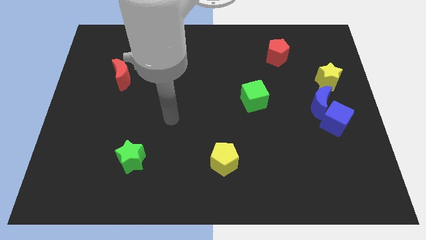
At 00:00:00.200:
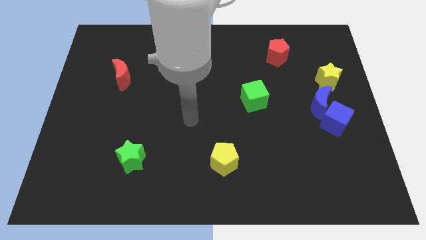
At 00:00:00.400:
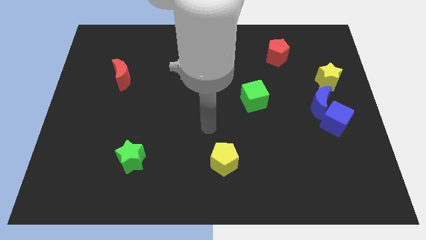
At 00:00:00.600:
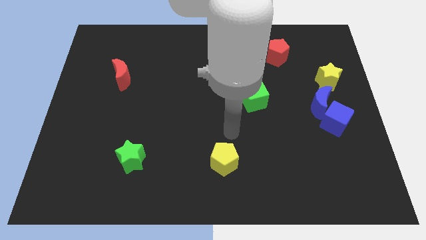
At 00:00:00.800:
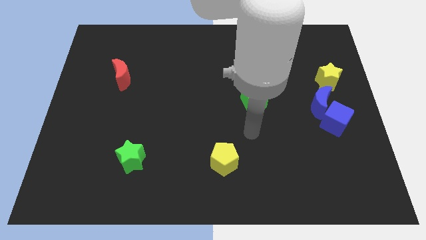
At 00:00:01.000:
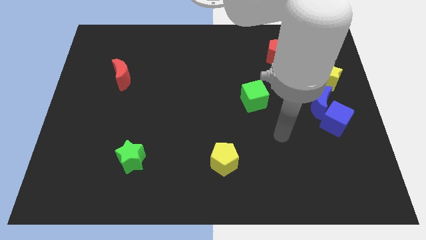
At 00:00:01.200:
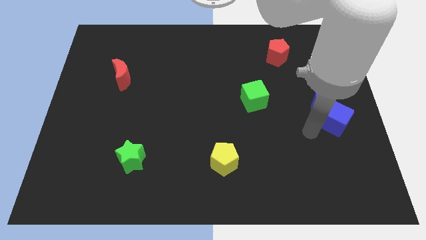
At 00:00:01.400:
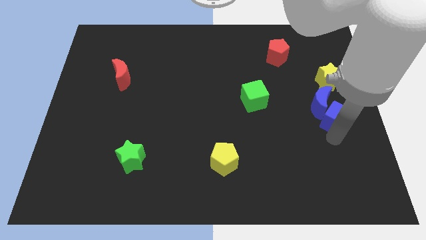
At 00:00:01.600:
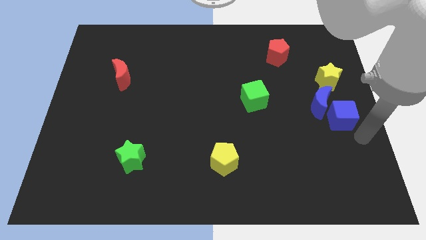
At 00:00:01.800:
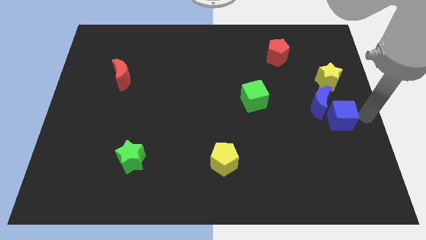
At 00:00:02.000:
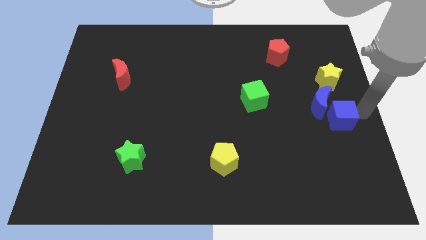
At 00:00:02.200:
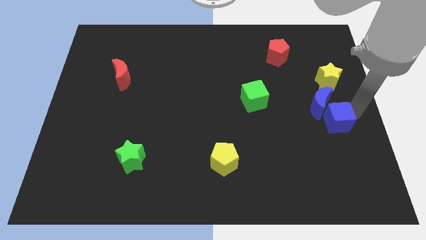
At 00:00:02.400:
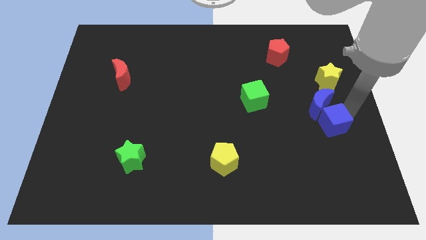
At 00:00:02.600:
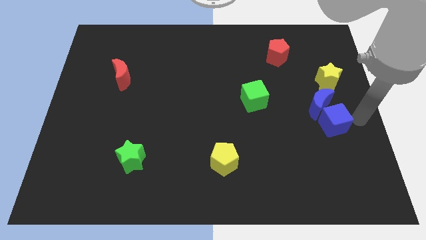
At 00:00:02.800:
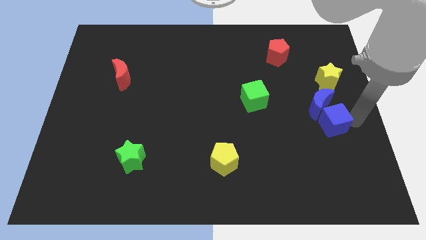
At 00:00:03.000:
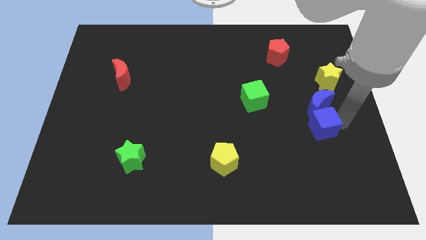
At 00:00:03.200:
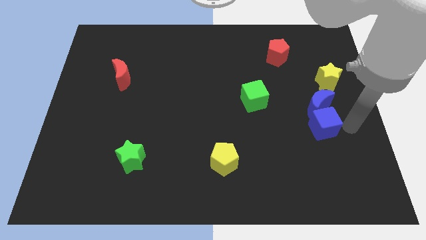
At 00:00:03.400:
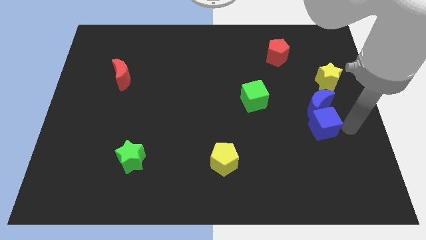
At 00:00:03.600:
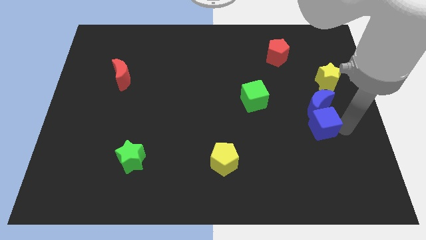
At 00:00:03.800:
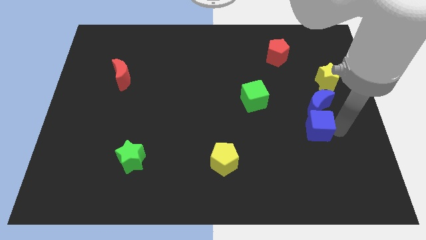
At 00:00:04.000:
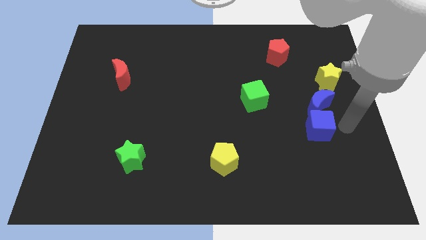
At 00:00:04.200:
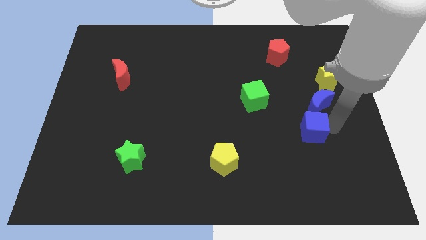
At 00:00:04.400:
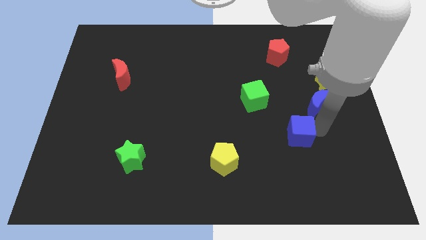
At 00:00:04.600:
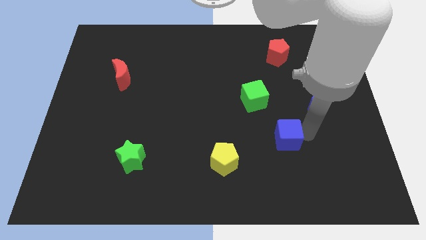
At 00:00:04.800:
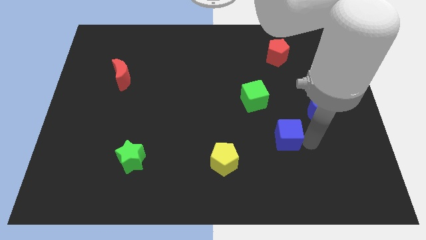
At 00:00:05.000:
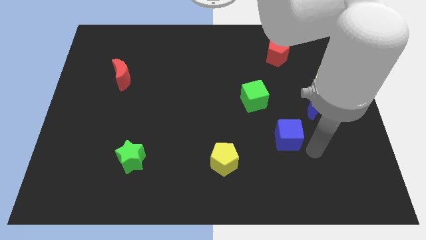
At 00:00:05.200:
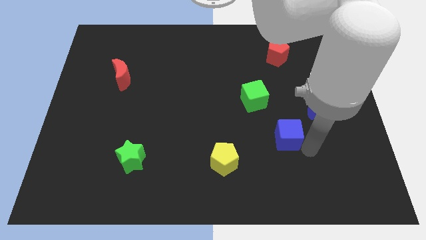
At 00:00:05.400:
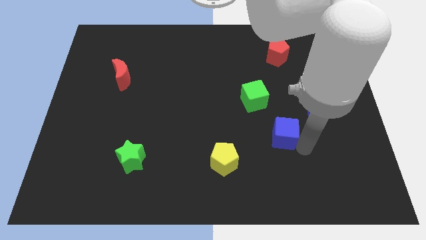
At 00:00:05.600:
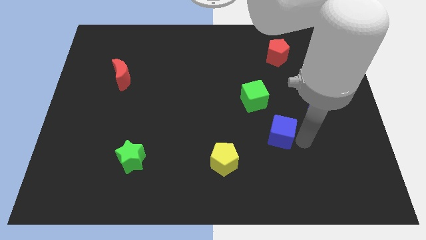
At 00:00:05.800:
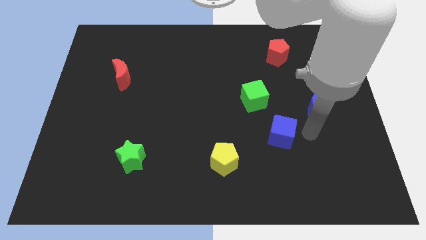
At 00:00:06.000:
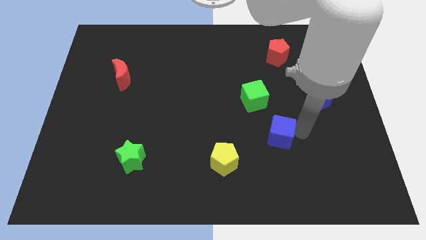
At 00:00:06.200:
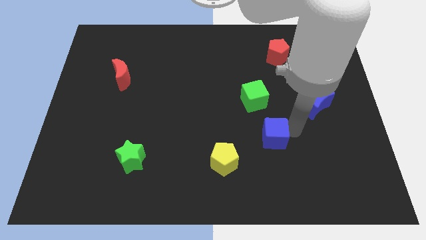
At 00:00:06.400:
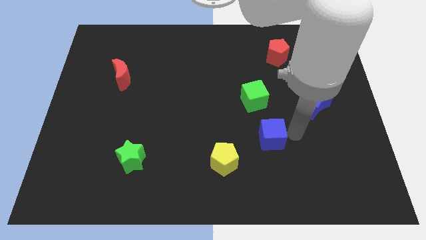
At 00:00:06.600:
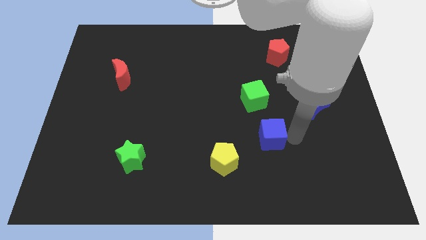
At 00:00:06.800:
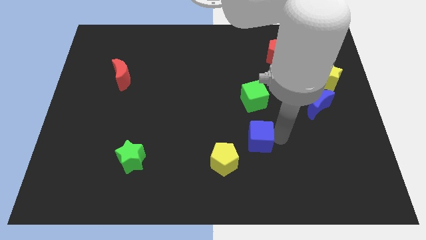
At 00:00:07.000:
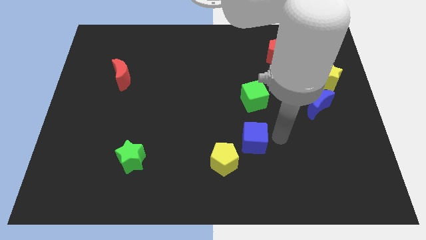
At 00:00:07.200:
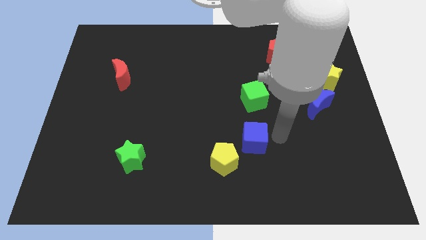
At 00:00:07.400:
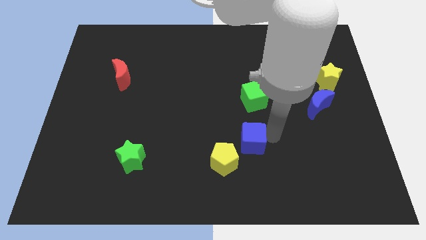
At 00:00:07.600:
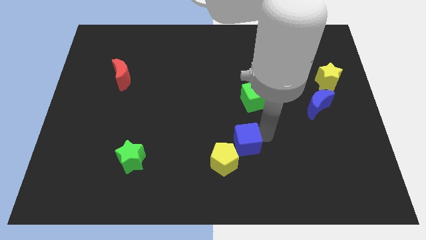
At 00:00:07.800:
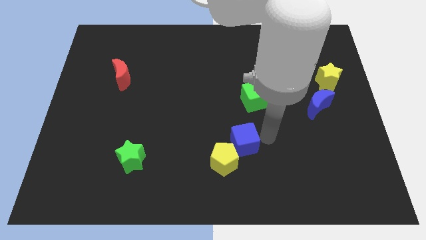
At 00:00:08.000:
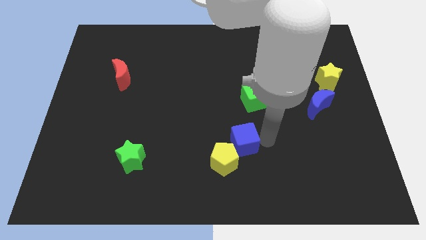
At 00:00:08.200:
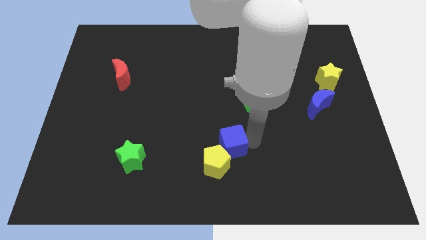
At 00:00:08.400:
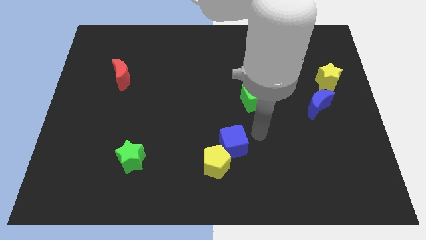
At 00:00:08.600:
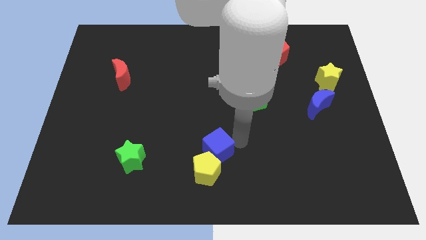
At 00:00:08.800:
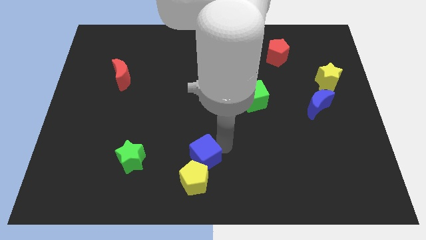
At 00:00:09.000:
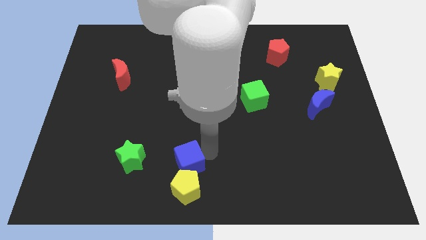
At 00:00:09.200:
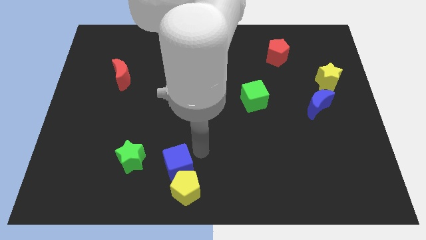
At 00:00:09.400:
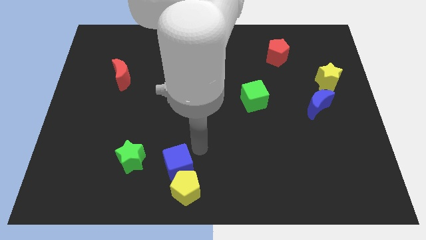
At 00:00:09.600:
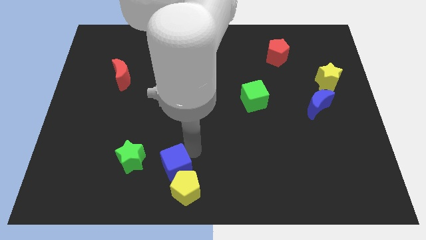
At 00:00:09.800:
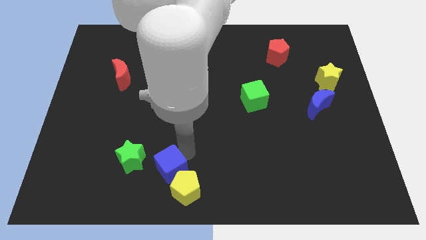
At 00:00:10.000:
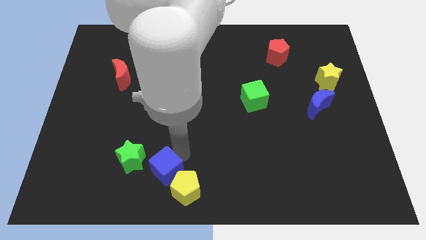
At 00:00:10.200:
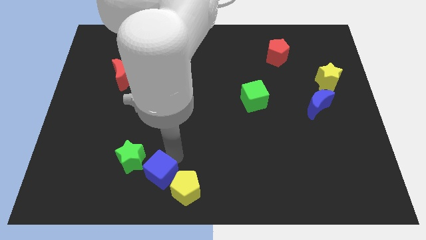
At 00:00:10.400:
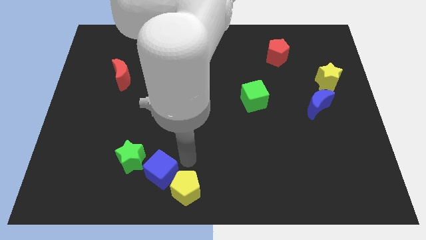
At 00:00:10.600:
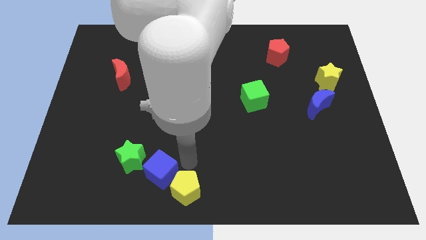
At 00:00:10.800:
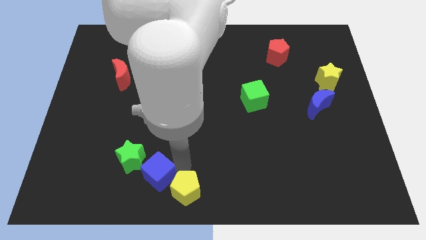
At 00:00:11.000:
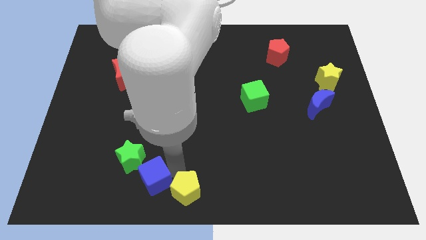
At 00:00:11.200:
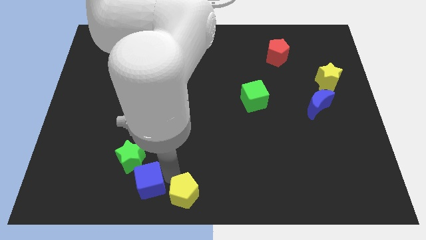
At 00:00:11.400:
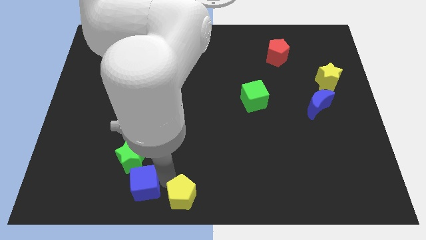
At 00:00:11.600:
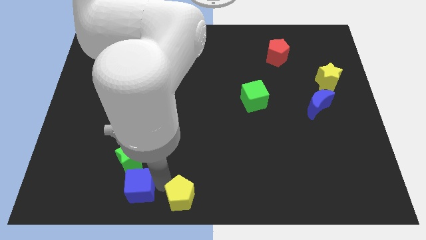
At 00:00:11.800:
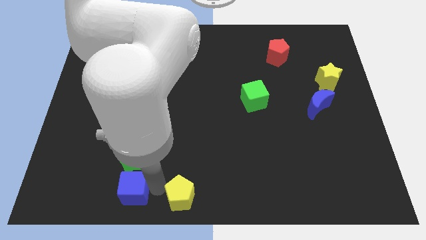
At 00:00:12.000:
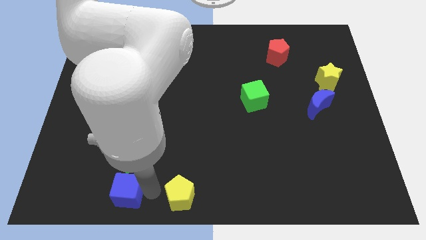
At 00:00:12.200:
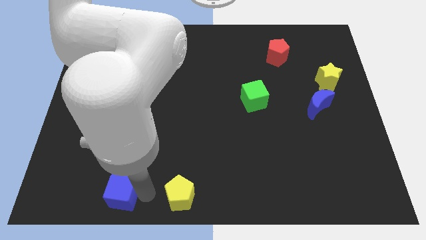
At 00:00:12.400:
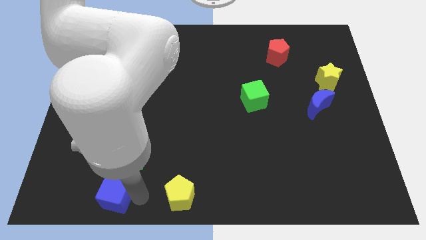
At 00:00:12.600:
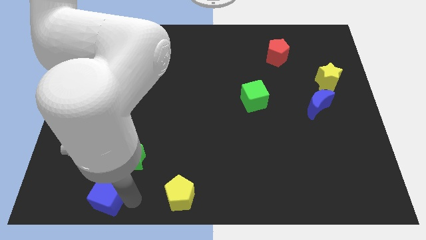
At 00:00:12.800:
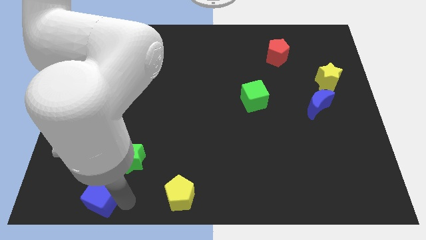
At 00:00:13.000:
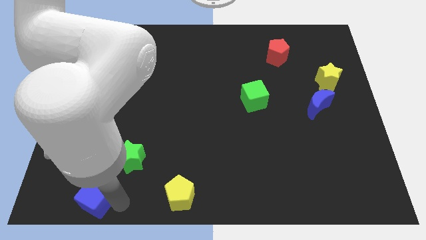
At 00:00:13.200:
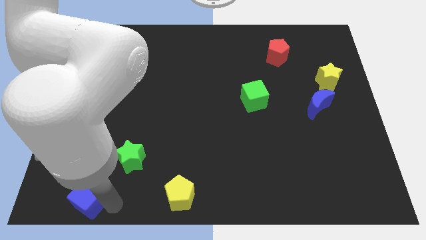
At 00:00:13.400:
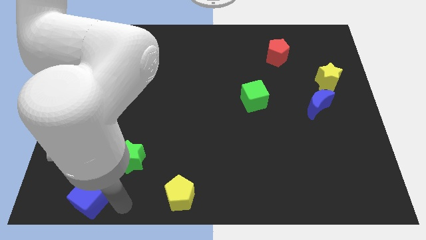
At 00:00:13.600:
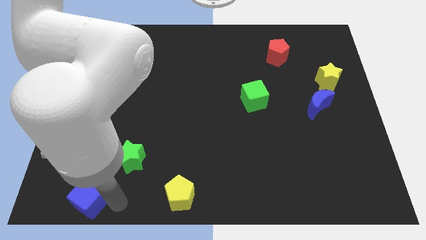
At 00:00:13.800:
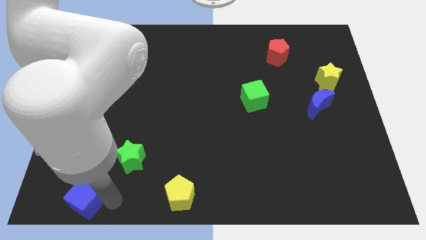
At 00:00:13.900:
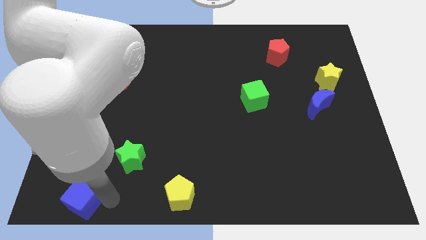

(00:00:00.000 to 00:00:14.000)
slide the blue cube to the bottom left corner
